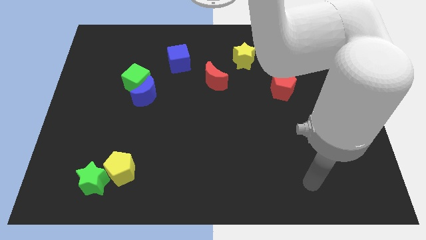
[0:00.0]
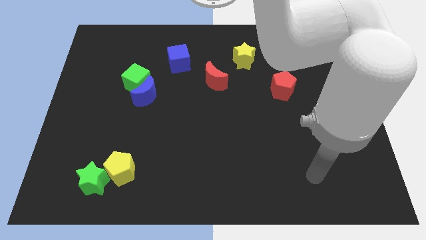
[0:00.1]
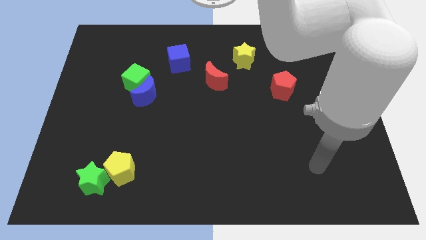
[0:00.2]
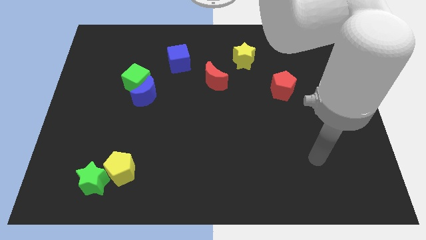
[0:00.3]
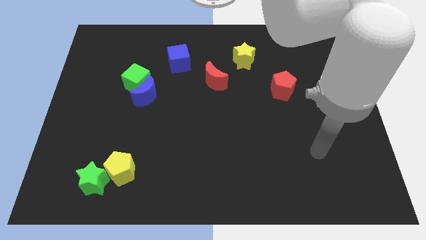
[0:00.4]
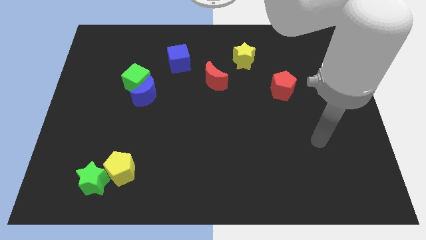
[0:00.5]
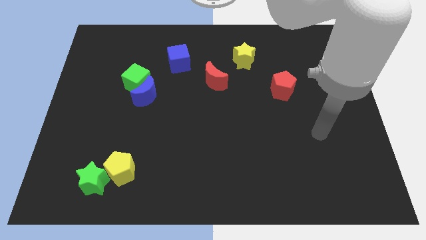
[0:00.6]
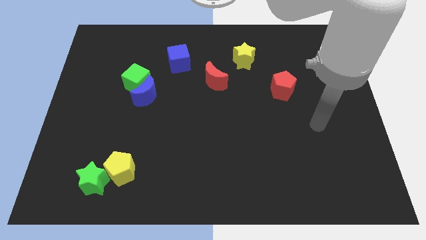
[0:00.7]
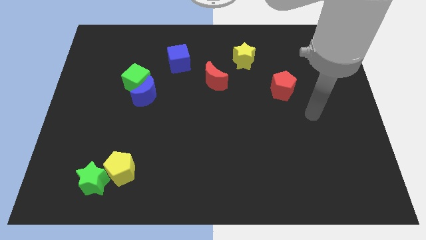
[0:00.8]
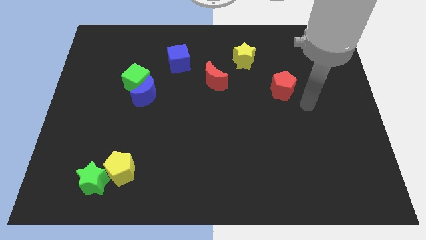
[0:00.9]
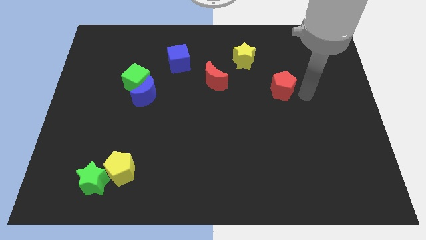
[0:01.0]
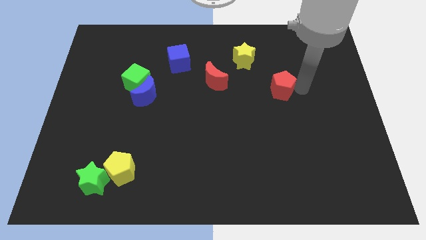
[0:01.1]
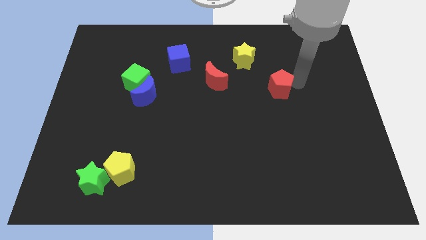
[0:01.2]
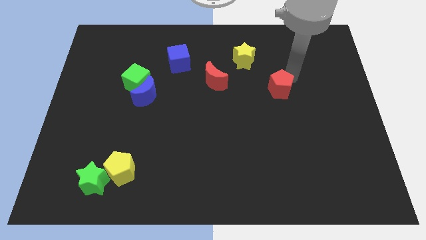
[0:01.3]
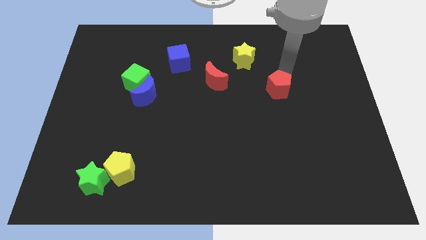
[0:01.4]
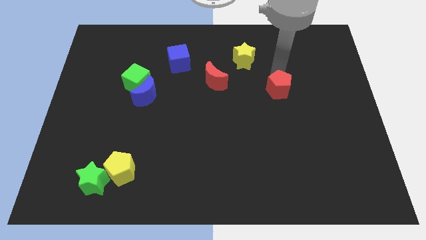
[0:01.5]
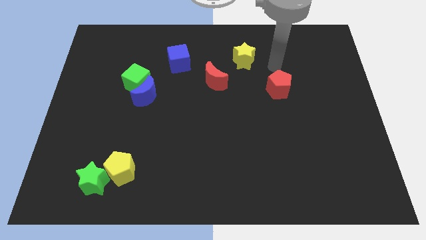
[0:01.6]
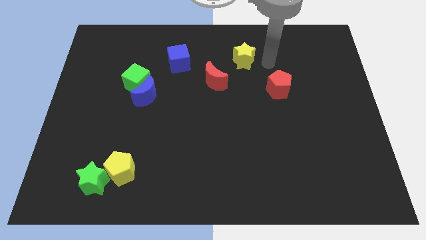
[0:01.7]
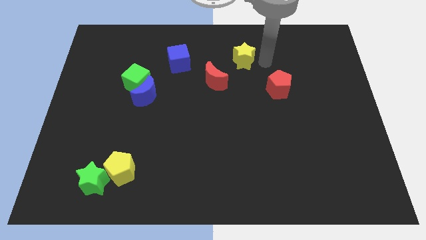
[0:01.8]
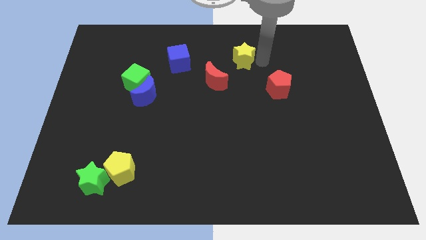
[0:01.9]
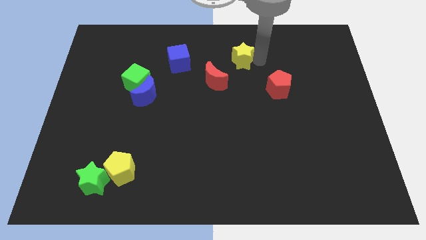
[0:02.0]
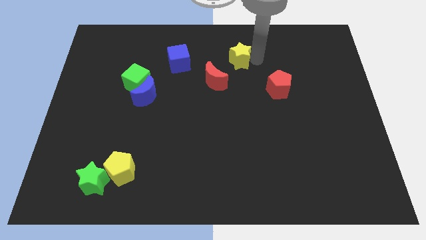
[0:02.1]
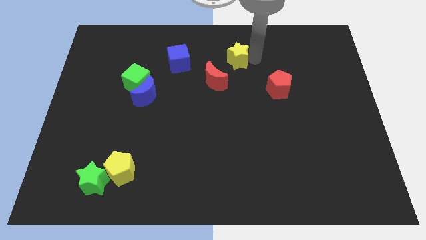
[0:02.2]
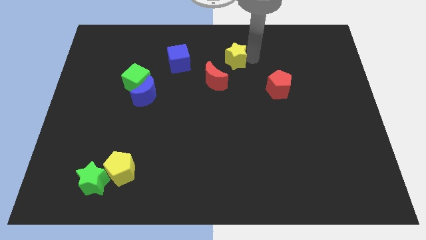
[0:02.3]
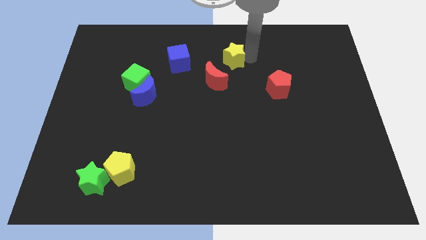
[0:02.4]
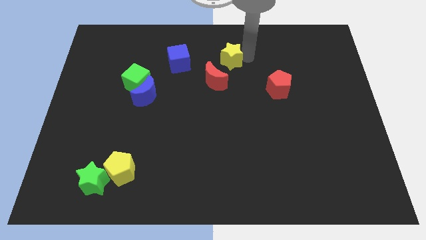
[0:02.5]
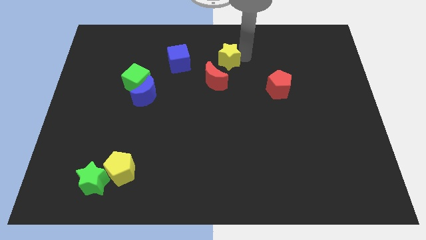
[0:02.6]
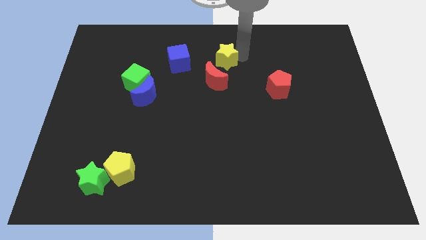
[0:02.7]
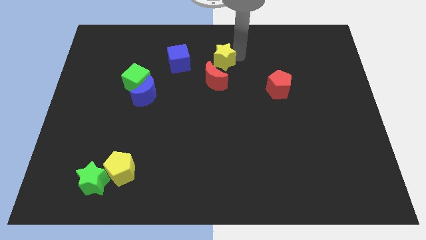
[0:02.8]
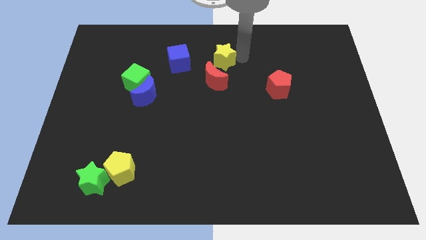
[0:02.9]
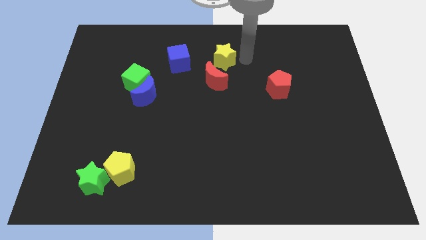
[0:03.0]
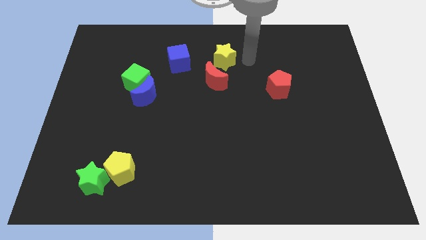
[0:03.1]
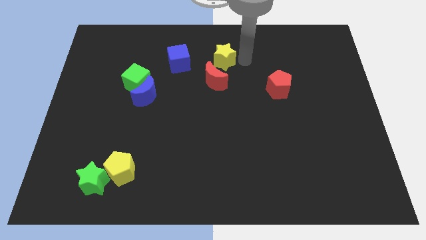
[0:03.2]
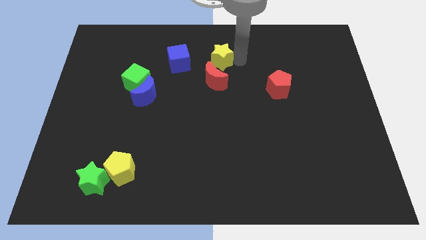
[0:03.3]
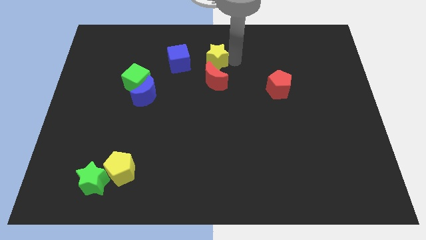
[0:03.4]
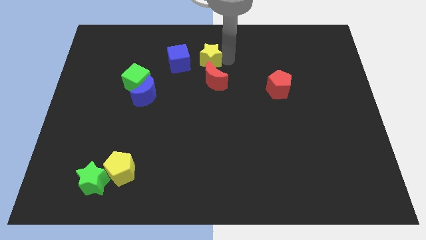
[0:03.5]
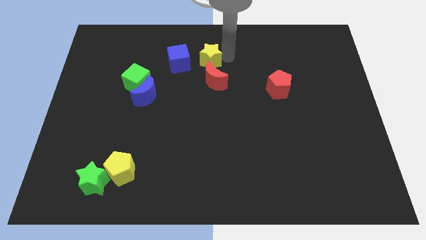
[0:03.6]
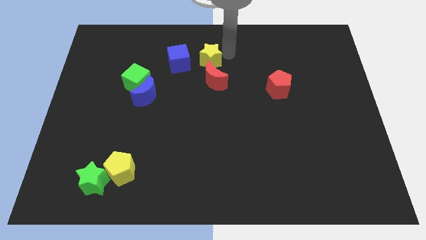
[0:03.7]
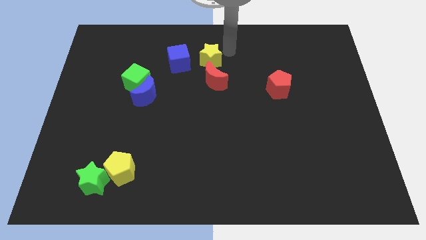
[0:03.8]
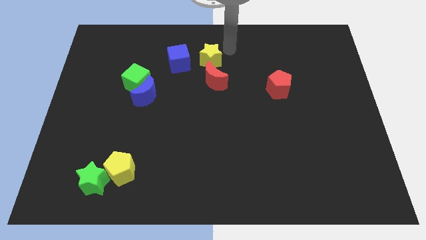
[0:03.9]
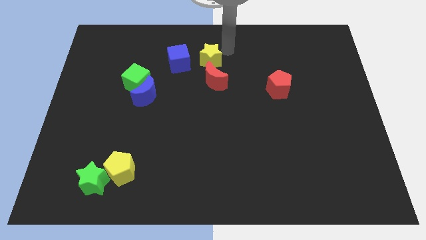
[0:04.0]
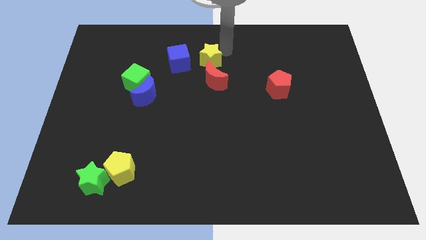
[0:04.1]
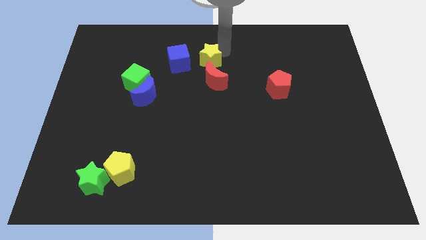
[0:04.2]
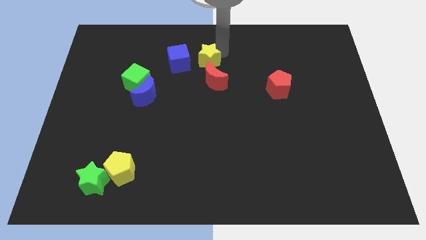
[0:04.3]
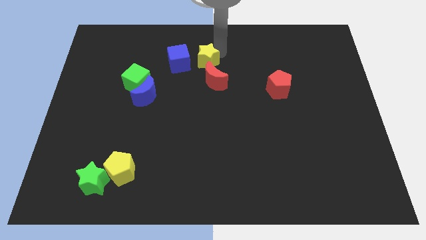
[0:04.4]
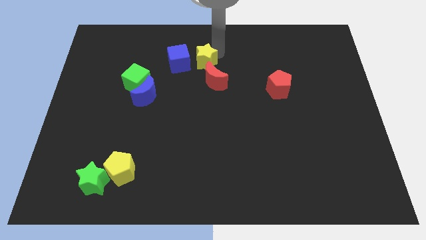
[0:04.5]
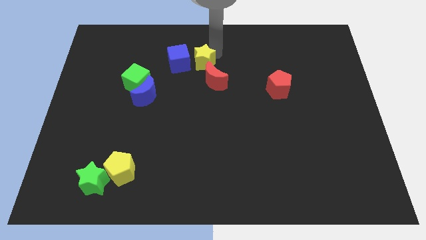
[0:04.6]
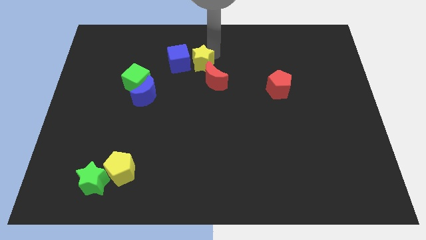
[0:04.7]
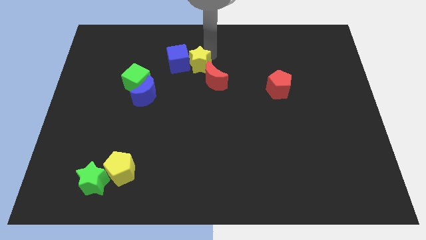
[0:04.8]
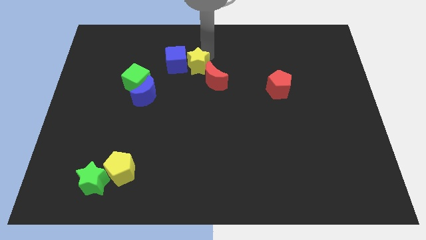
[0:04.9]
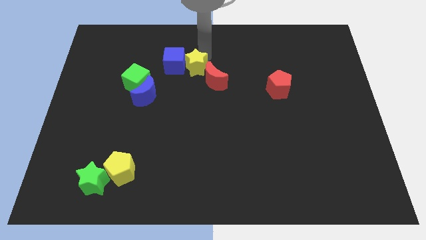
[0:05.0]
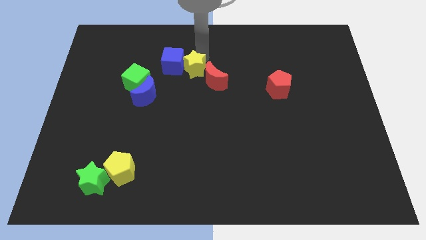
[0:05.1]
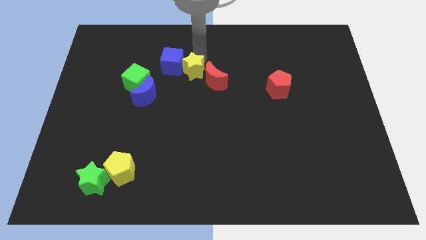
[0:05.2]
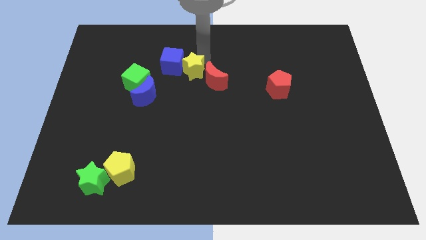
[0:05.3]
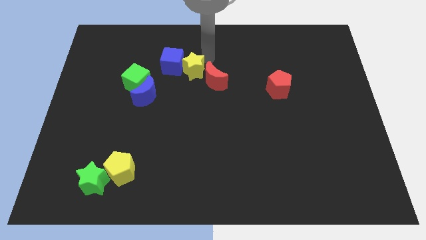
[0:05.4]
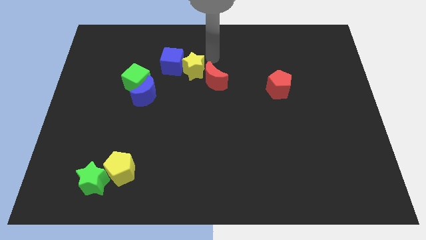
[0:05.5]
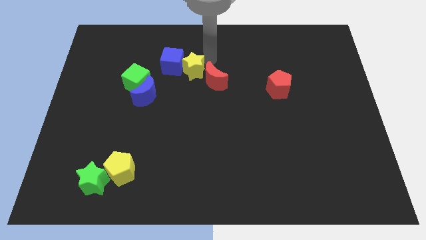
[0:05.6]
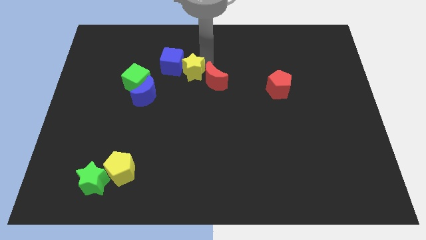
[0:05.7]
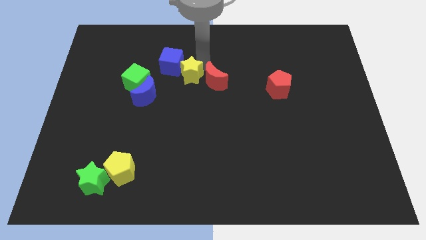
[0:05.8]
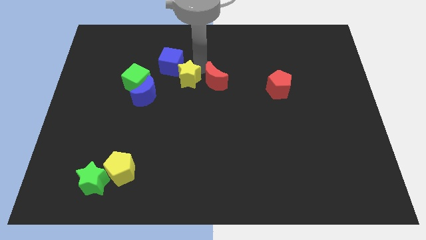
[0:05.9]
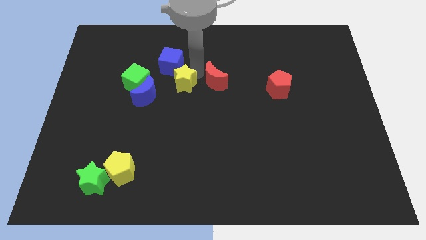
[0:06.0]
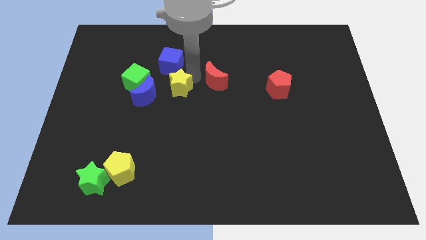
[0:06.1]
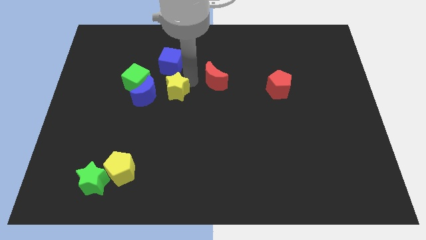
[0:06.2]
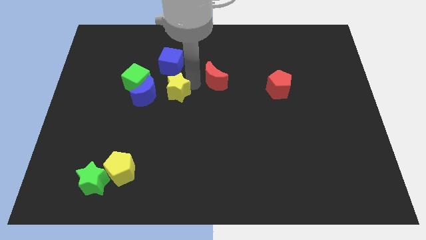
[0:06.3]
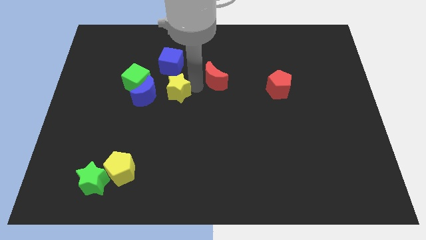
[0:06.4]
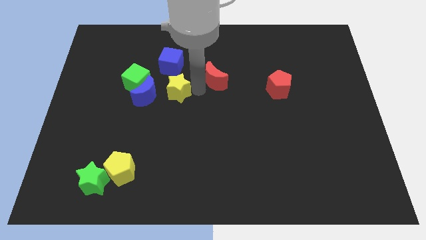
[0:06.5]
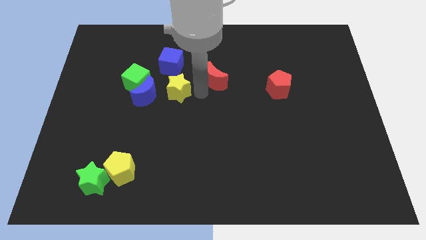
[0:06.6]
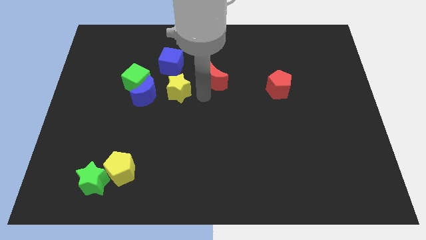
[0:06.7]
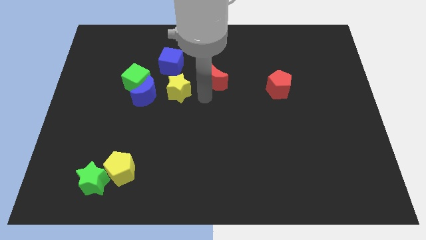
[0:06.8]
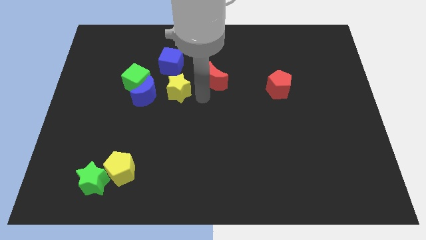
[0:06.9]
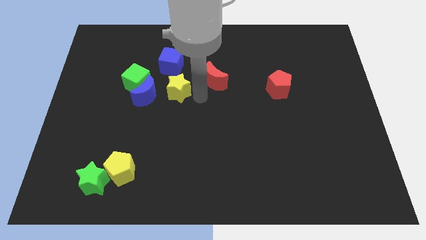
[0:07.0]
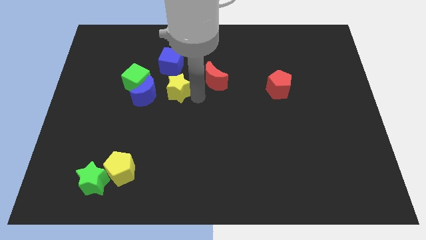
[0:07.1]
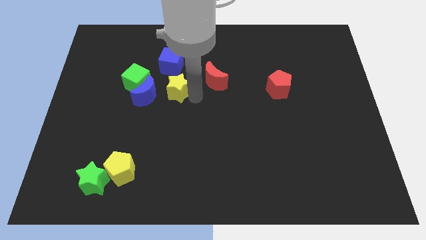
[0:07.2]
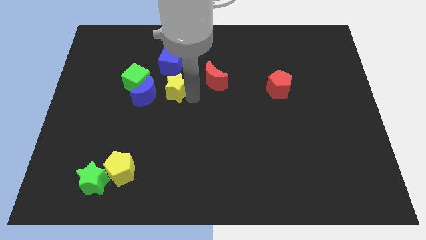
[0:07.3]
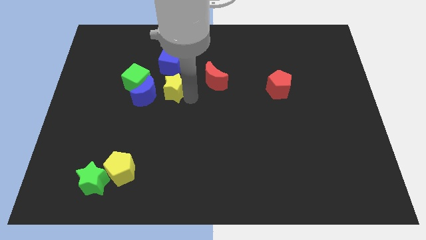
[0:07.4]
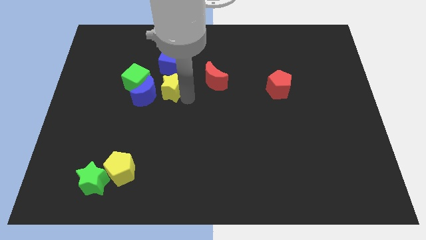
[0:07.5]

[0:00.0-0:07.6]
put the yellow star to the blue moon

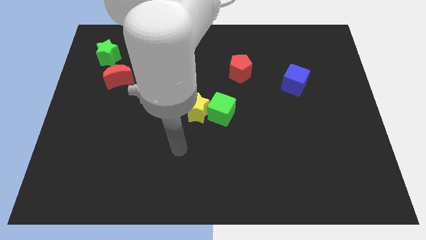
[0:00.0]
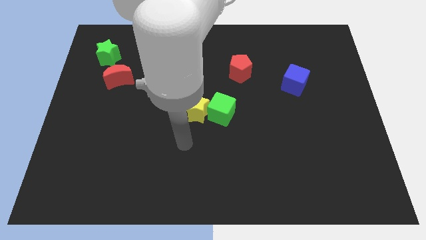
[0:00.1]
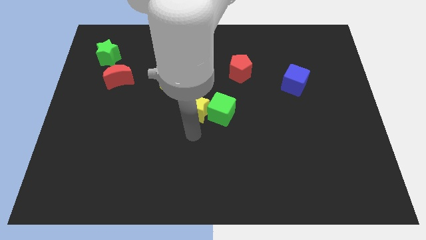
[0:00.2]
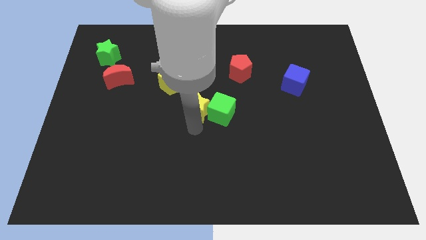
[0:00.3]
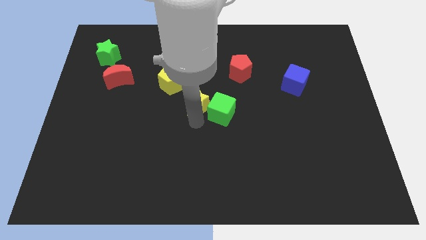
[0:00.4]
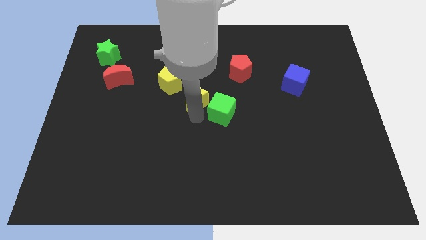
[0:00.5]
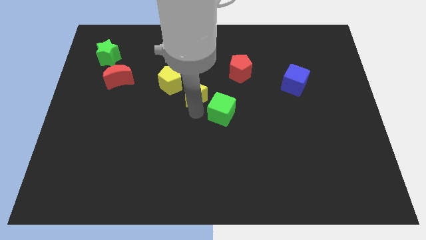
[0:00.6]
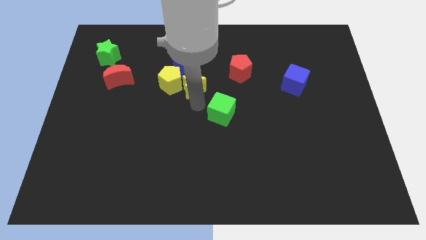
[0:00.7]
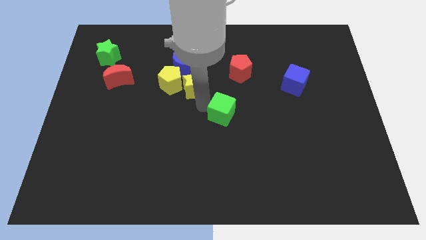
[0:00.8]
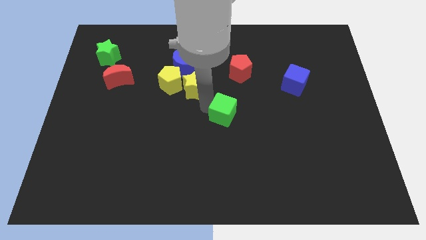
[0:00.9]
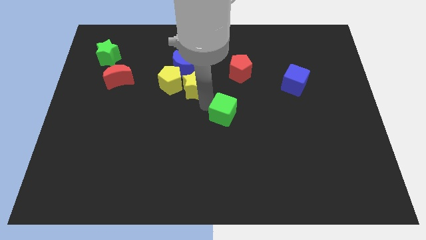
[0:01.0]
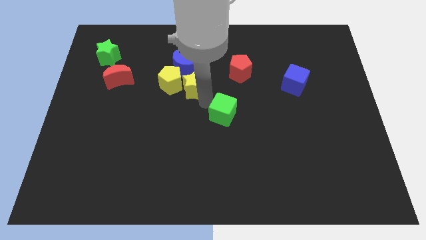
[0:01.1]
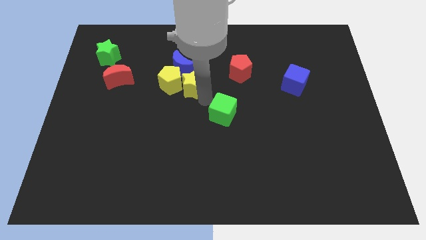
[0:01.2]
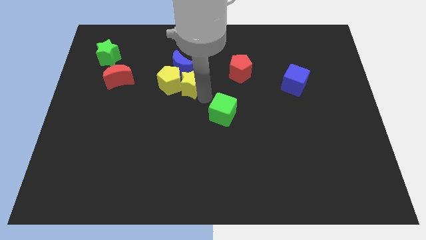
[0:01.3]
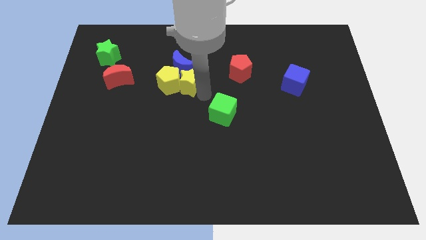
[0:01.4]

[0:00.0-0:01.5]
slide the yellow star to the blue moon
